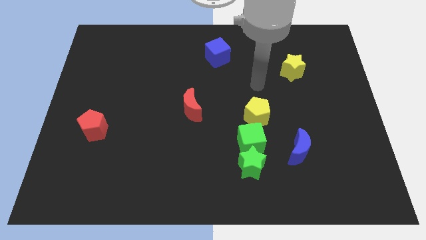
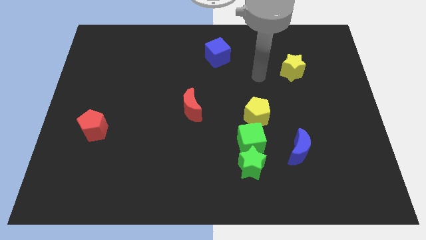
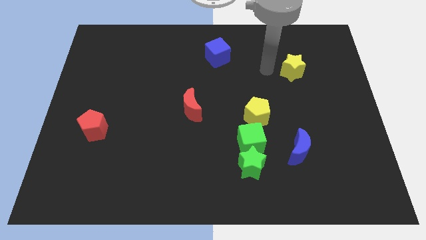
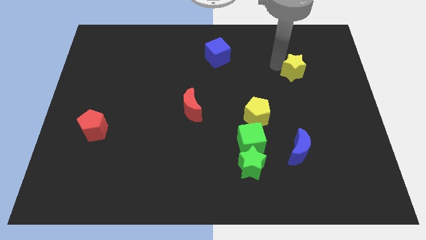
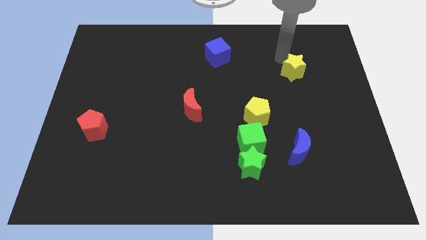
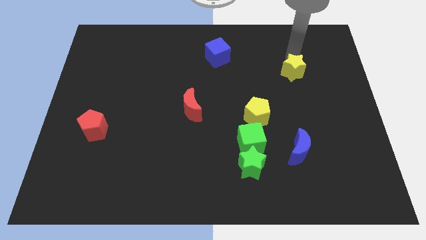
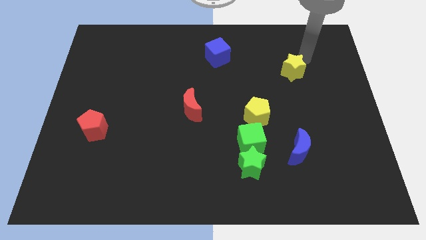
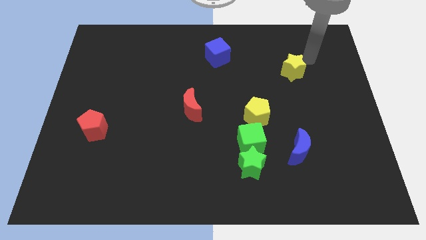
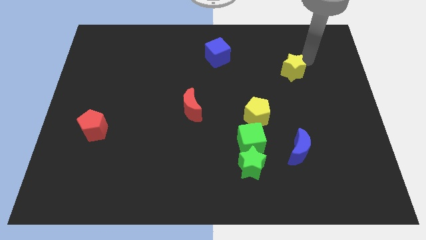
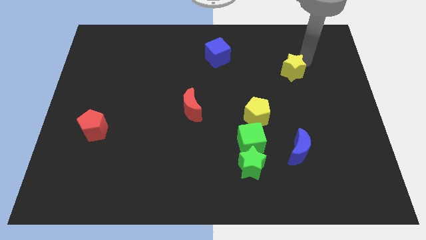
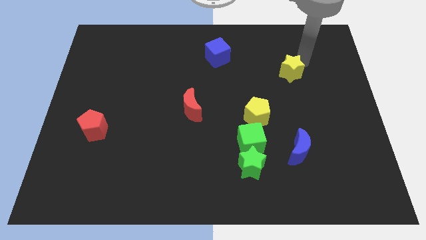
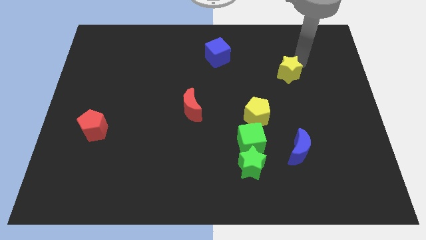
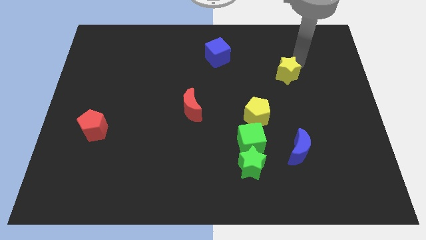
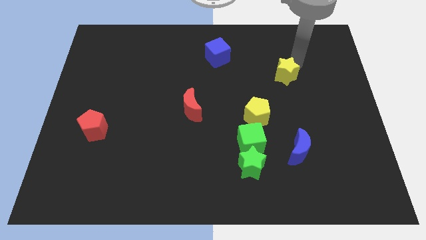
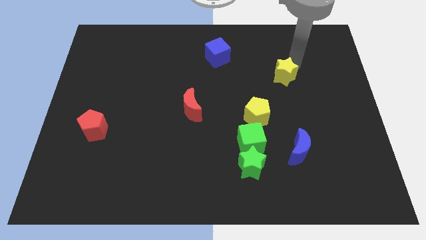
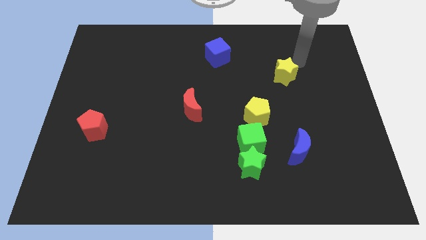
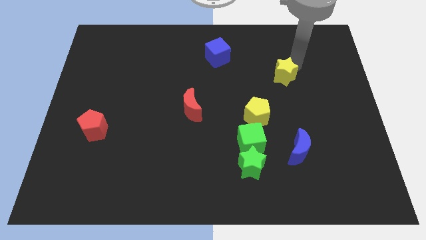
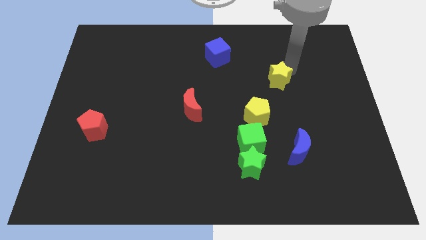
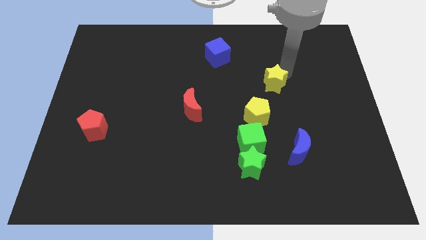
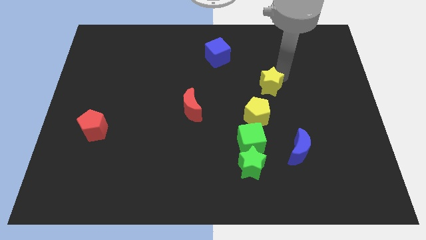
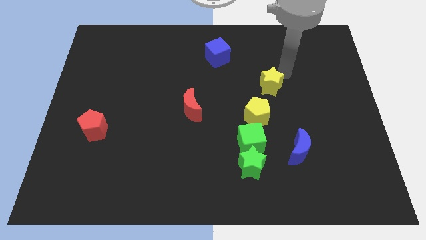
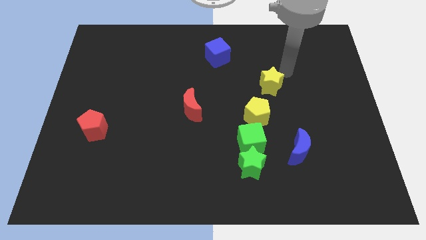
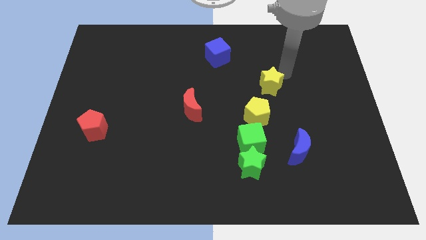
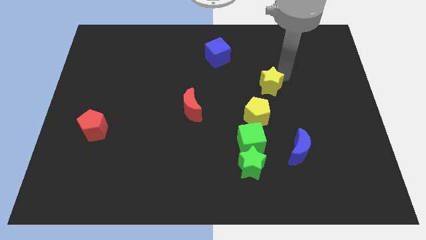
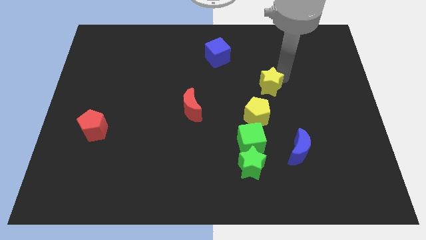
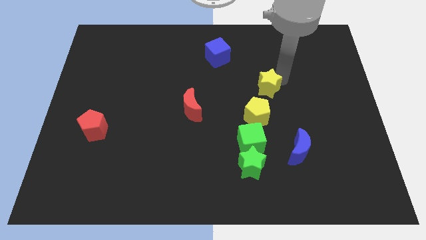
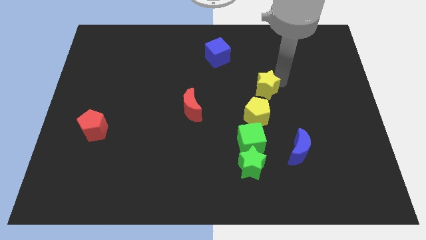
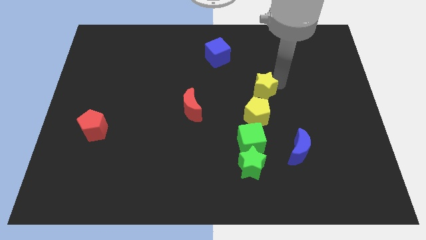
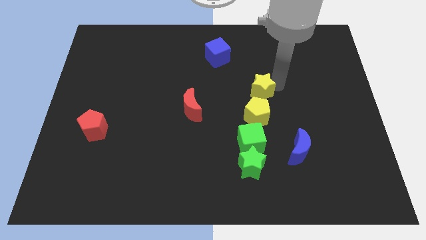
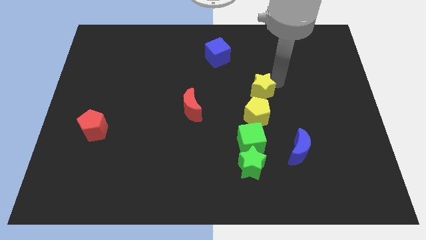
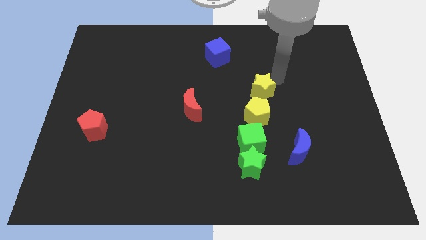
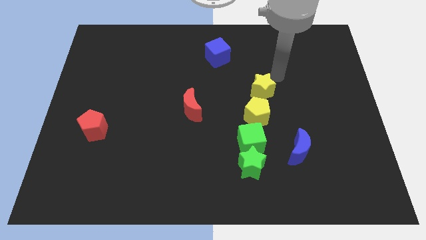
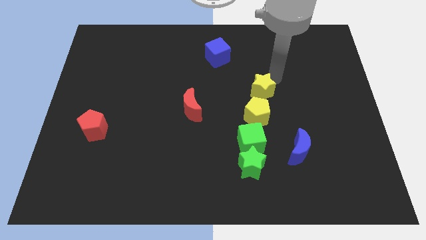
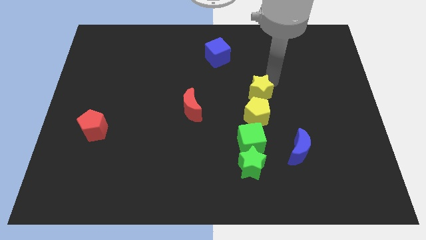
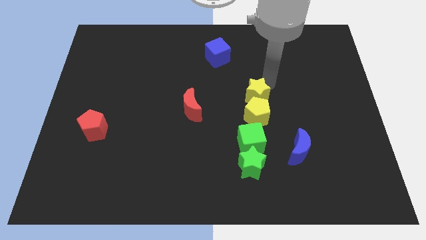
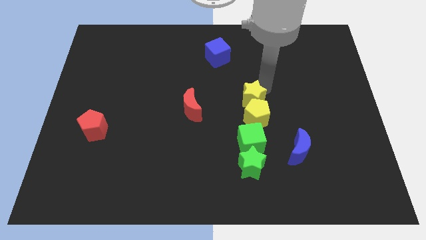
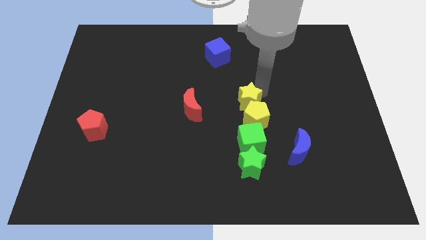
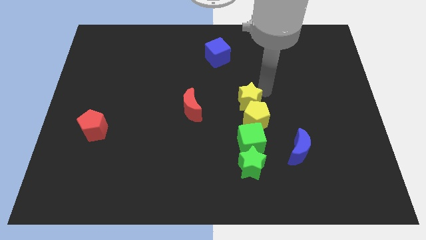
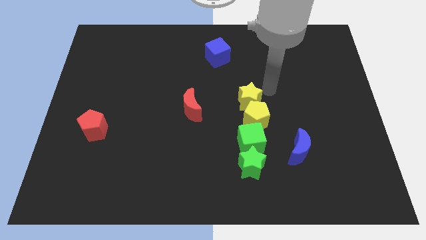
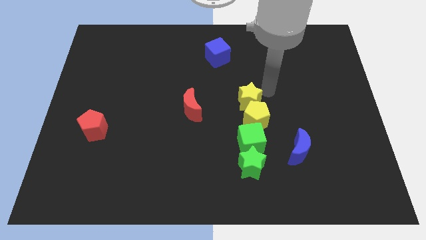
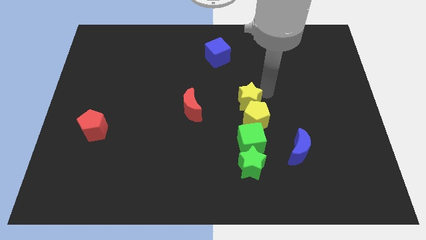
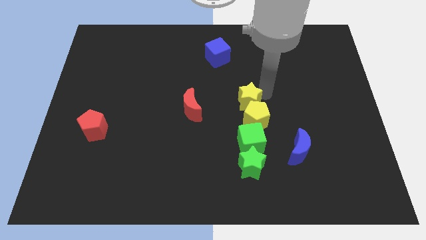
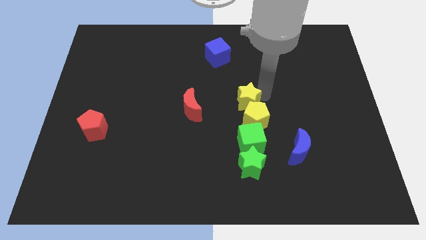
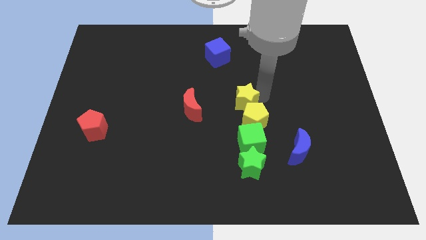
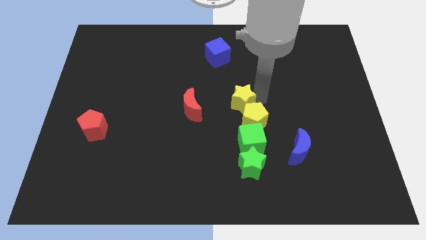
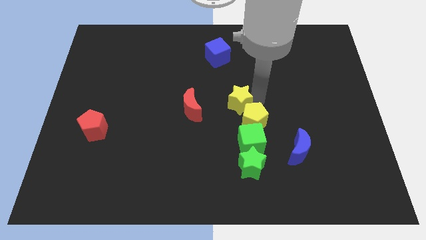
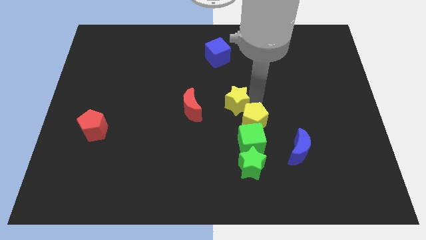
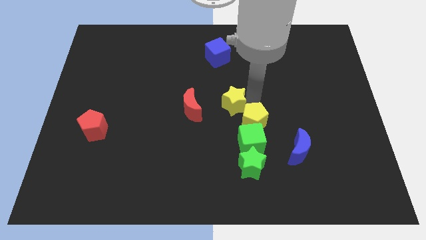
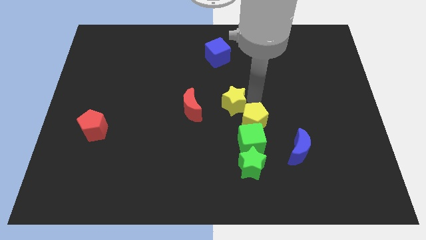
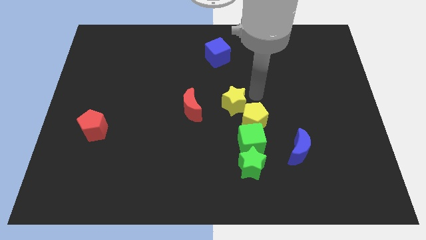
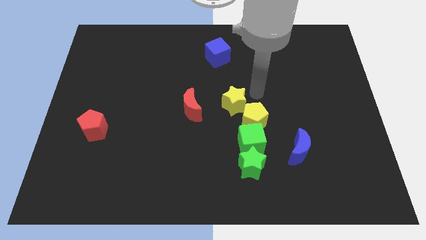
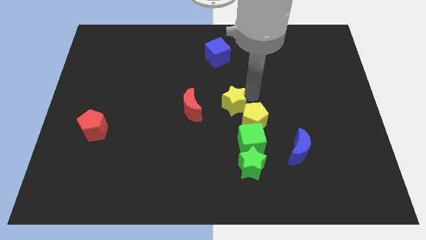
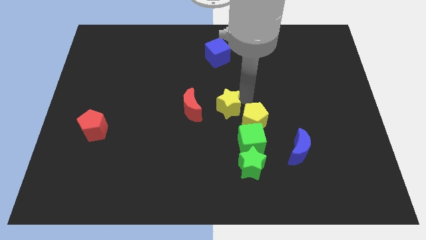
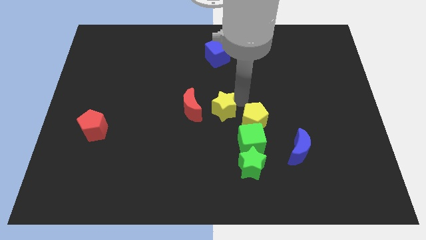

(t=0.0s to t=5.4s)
move the yellow star downwards and then to the left

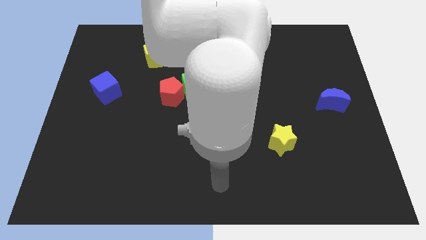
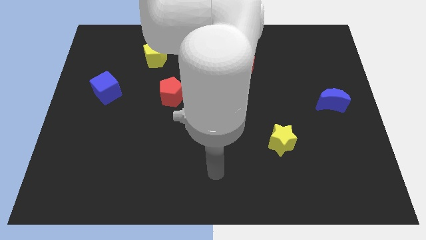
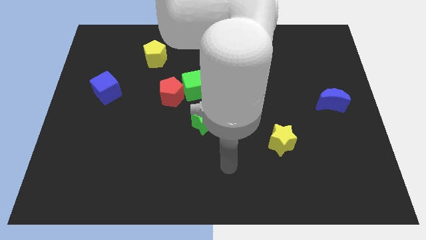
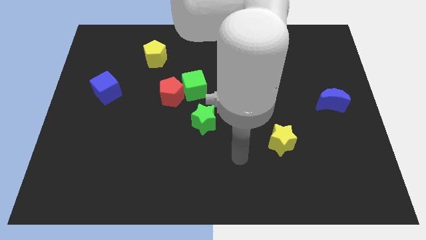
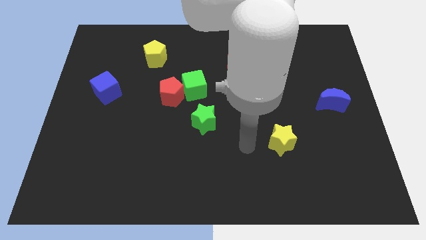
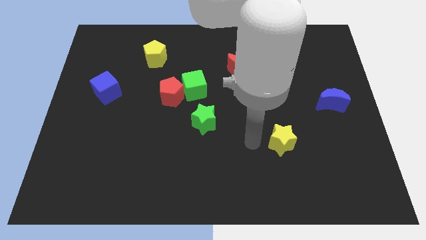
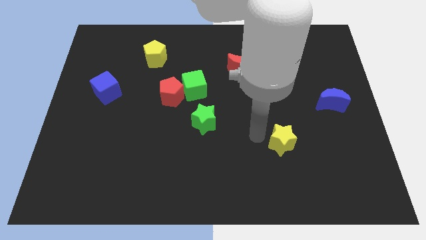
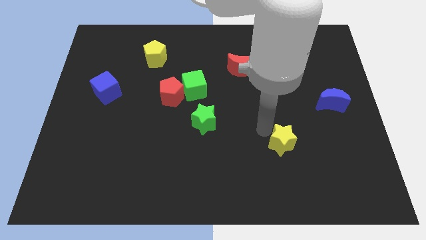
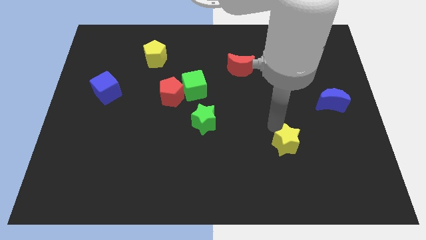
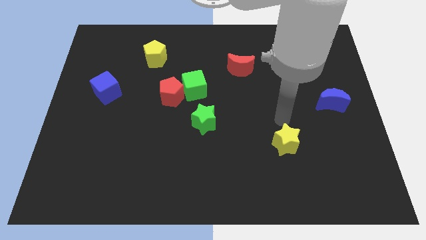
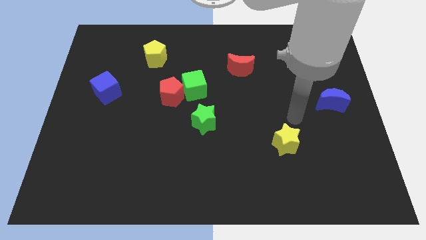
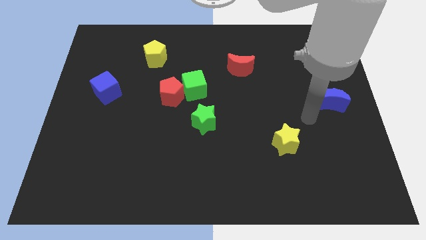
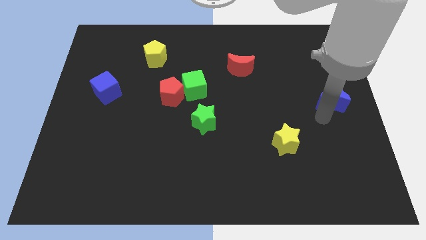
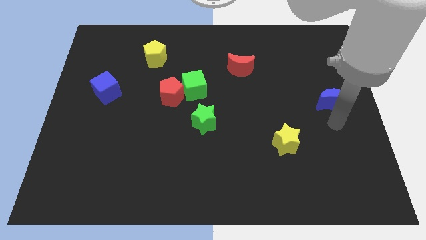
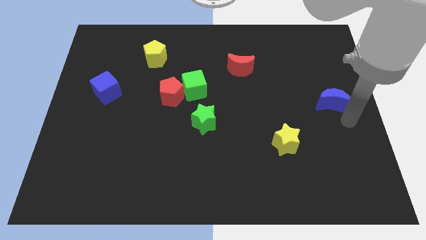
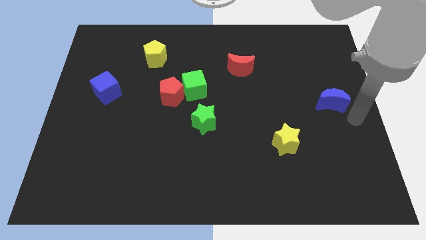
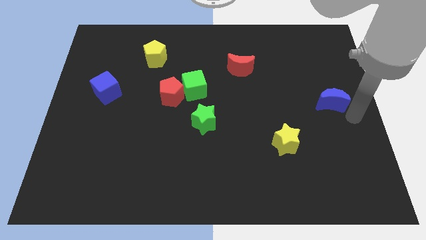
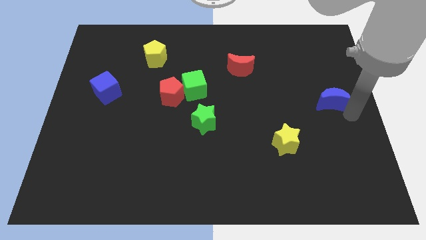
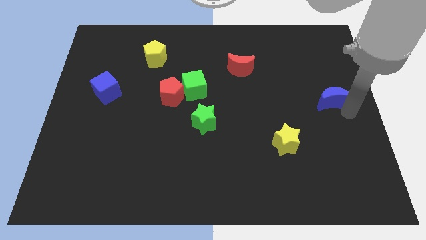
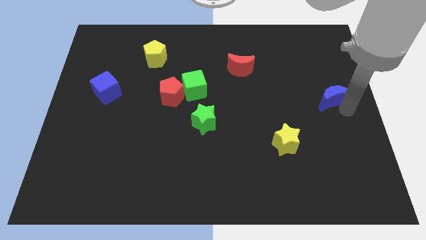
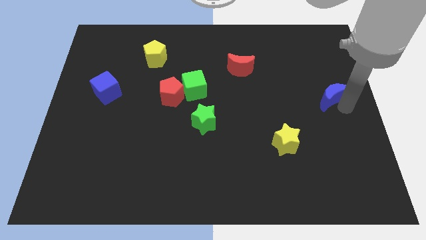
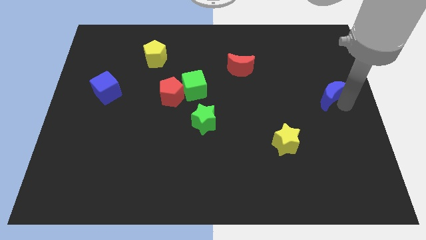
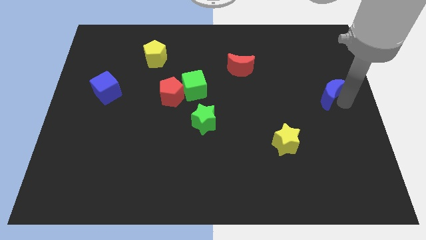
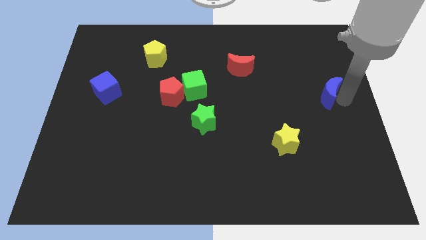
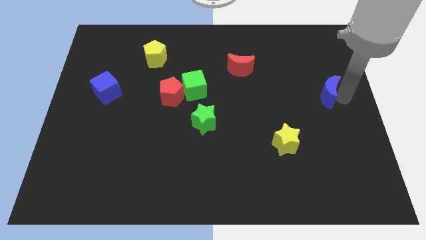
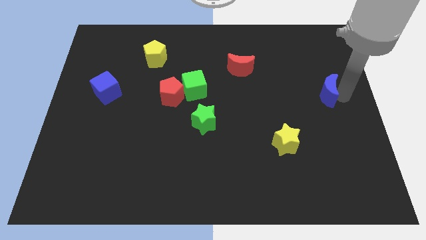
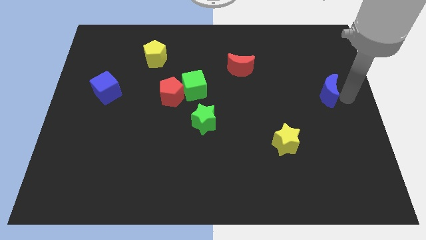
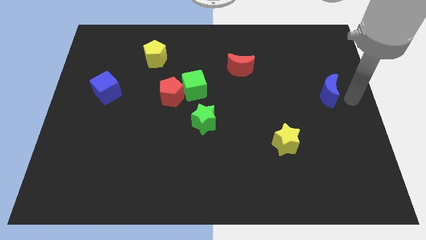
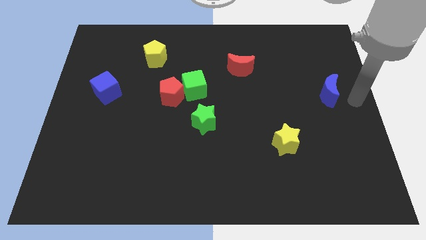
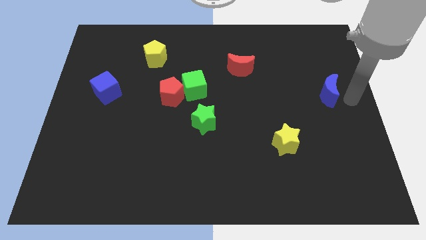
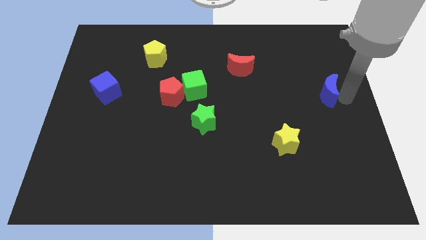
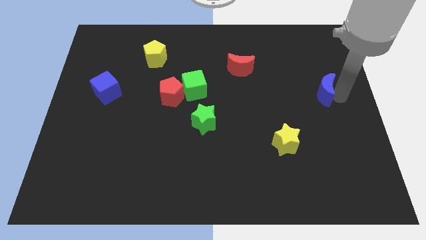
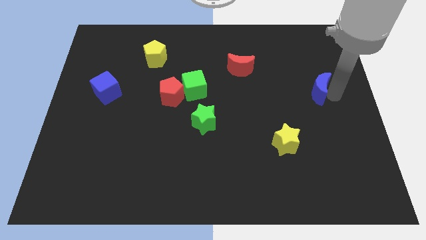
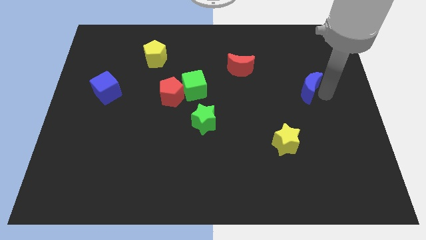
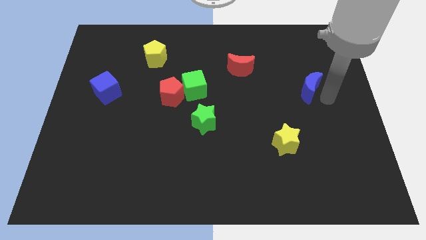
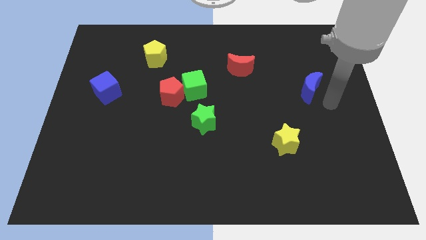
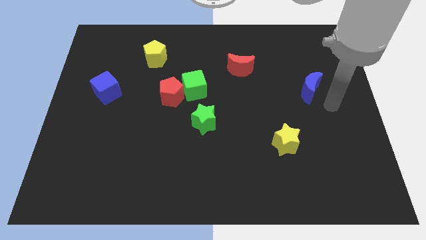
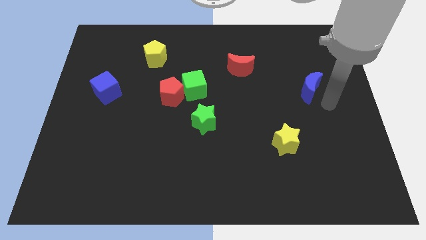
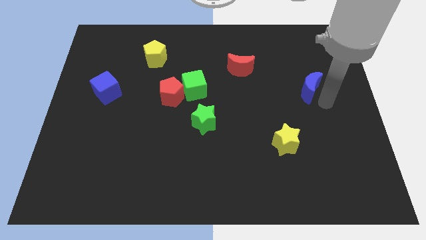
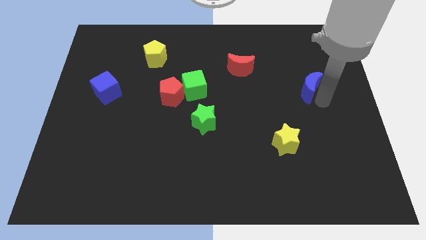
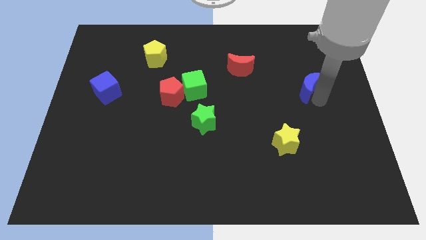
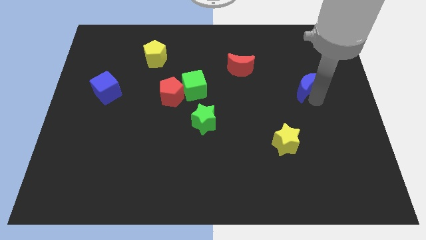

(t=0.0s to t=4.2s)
push the blue moon upwards and then to the left a little
